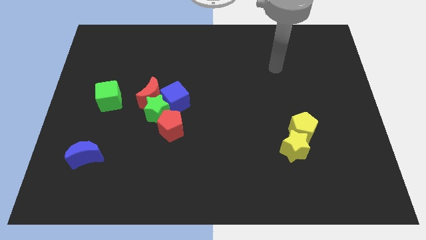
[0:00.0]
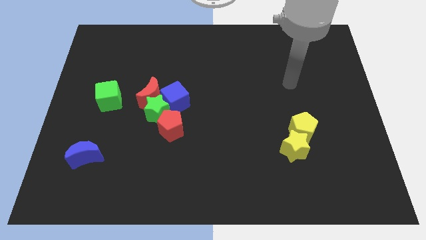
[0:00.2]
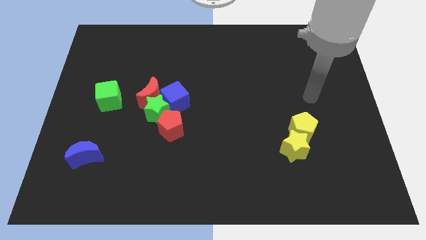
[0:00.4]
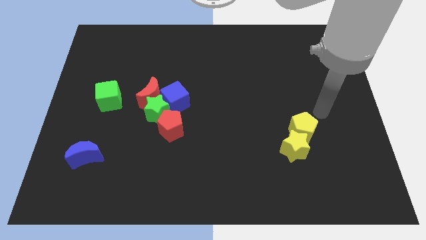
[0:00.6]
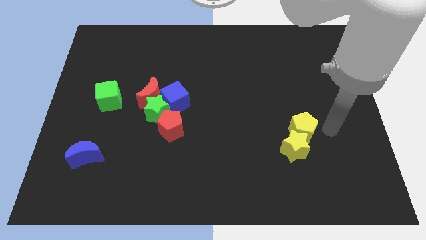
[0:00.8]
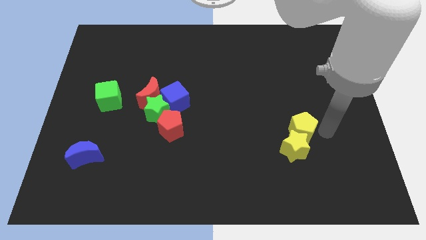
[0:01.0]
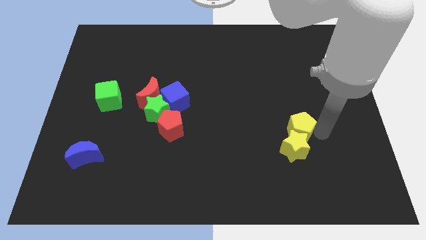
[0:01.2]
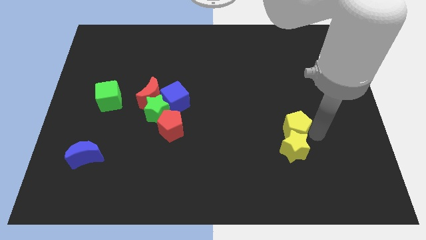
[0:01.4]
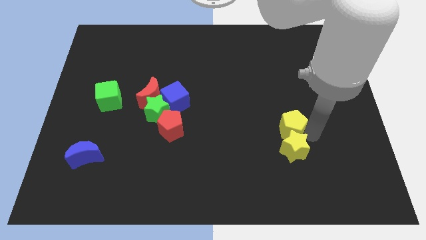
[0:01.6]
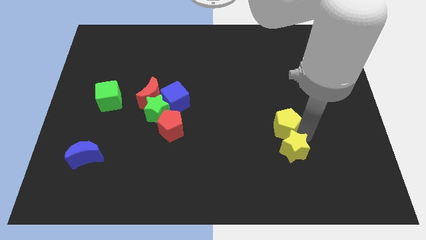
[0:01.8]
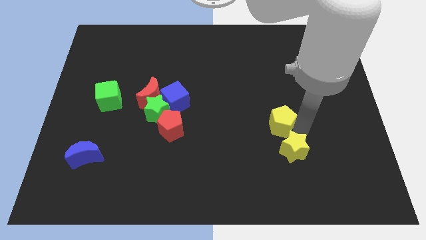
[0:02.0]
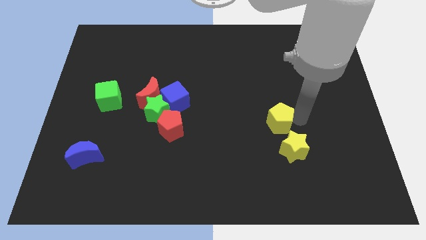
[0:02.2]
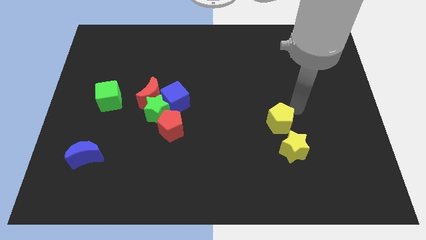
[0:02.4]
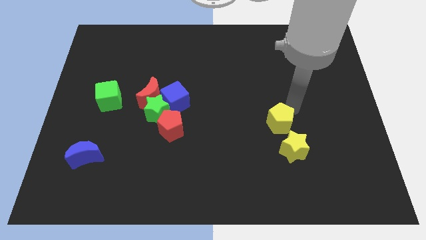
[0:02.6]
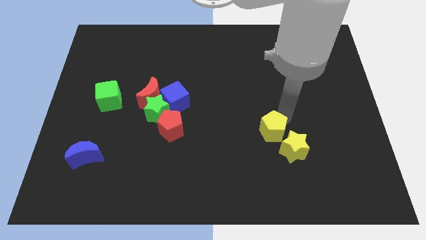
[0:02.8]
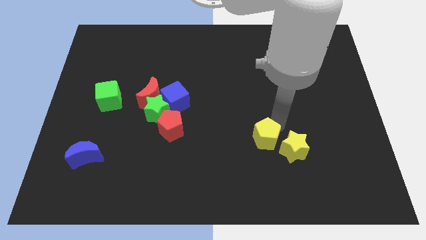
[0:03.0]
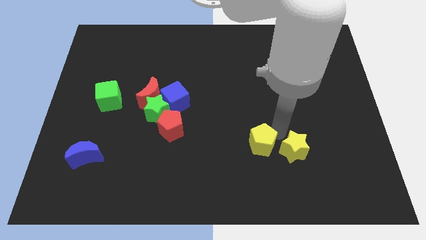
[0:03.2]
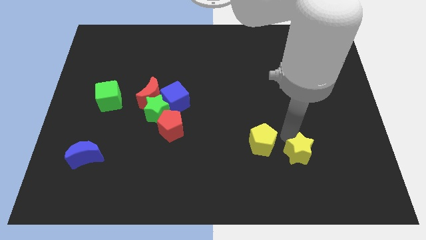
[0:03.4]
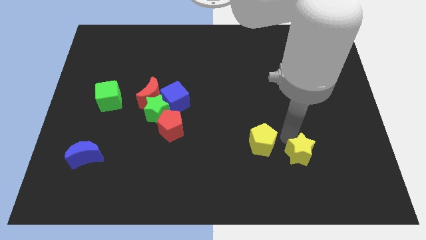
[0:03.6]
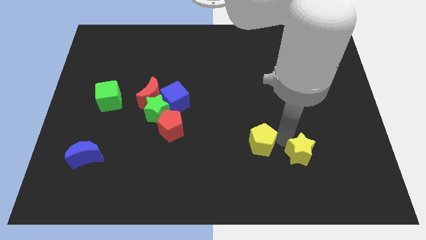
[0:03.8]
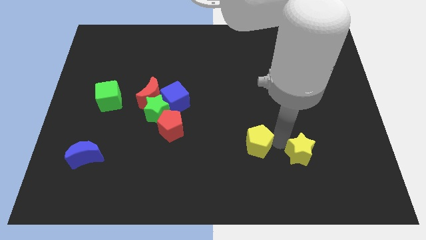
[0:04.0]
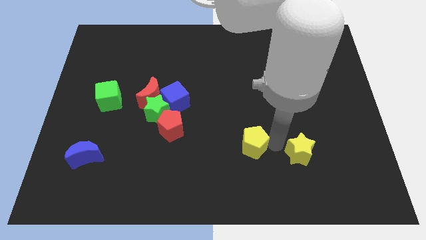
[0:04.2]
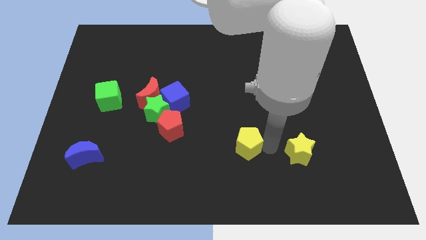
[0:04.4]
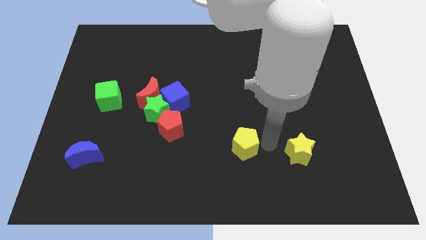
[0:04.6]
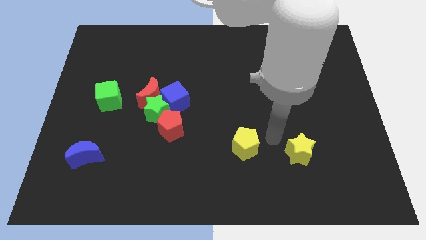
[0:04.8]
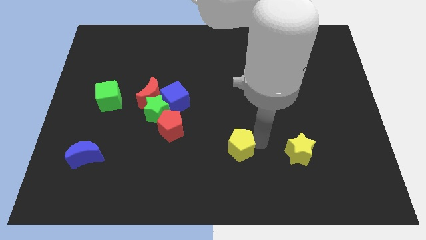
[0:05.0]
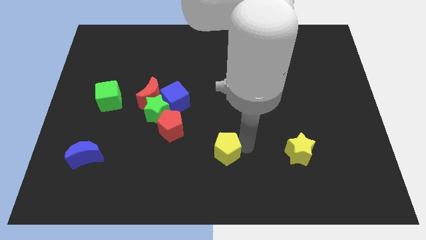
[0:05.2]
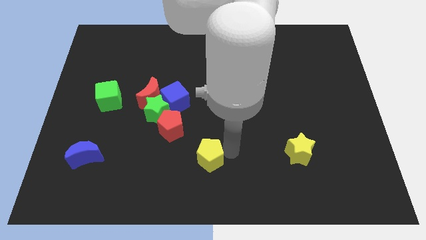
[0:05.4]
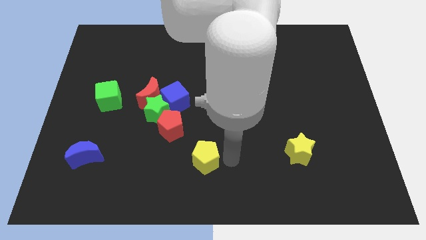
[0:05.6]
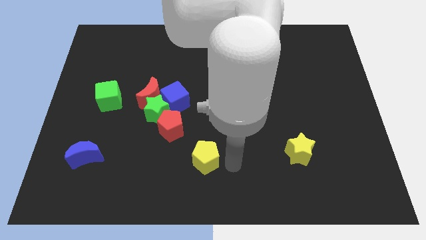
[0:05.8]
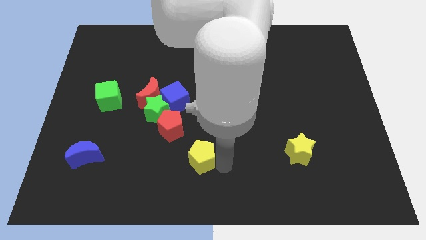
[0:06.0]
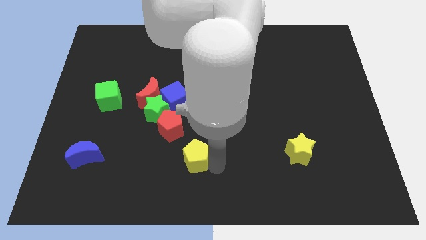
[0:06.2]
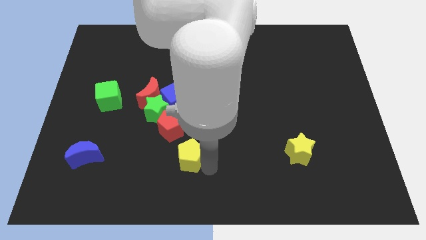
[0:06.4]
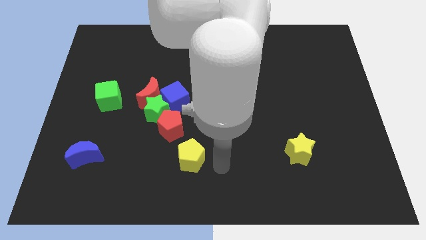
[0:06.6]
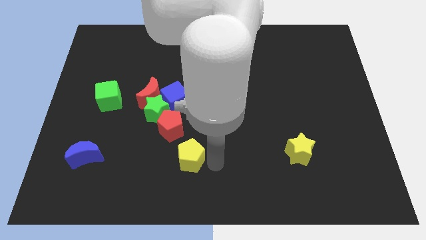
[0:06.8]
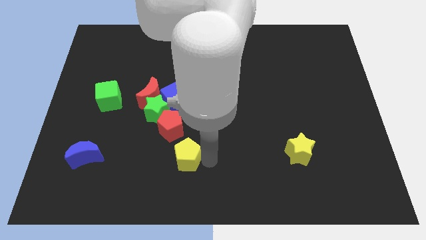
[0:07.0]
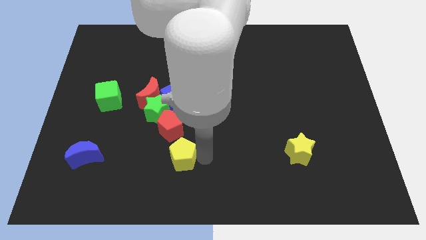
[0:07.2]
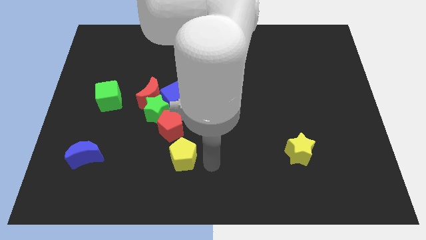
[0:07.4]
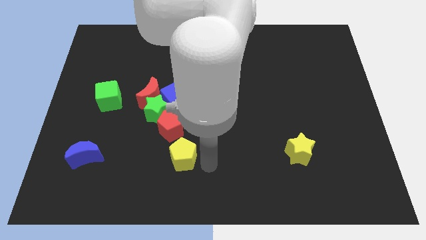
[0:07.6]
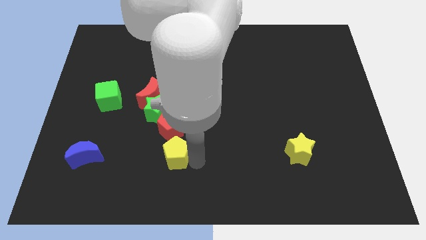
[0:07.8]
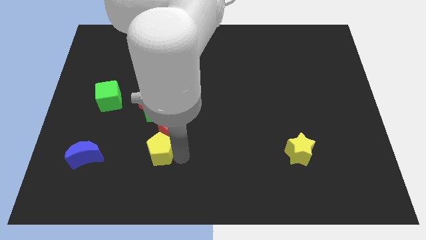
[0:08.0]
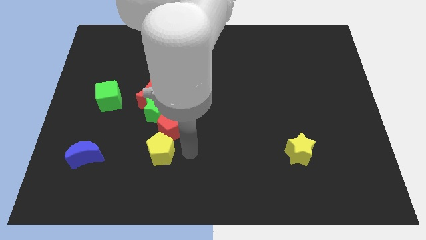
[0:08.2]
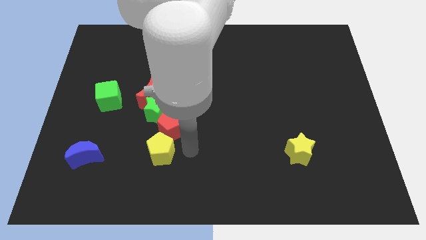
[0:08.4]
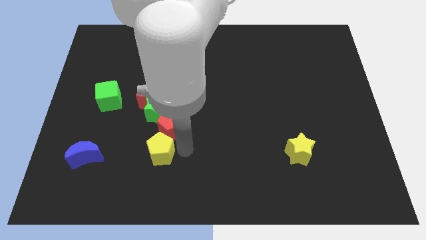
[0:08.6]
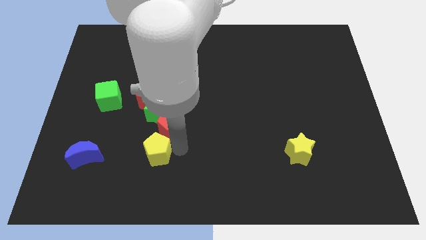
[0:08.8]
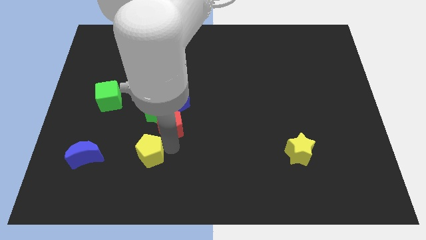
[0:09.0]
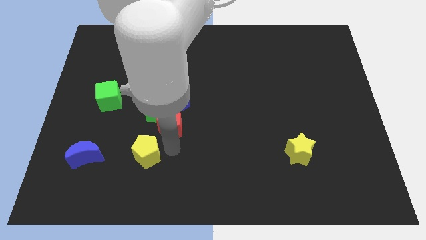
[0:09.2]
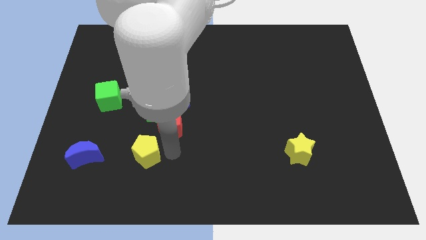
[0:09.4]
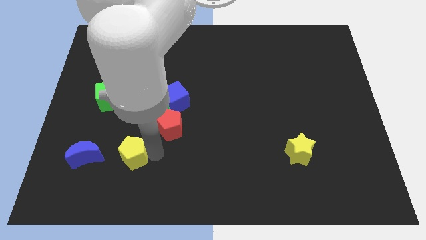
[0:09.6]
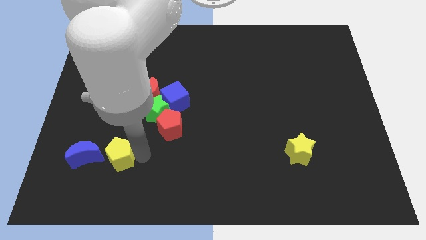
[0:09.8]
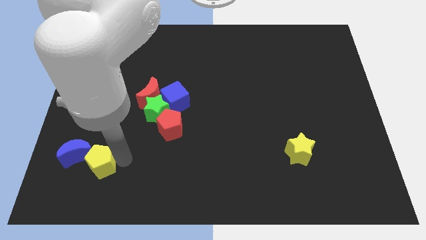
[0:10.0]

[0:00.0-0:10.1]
slide the yellow pentagon towards the blue moon

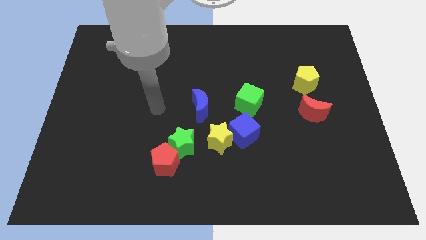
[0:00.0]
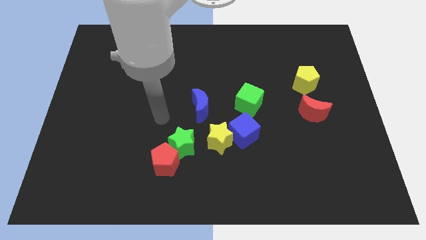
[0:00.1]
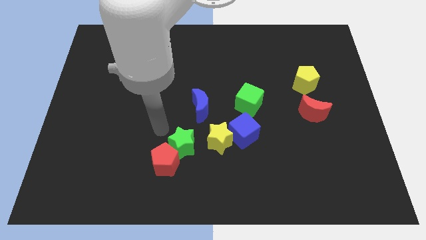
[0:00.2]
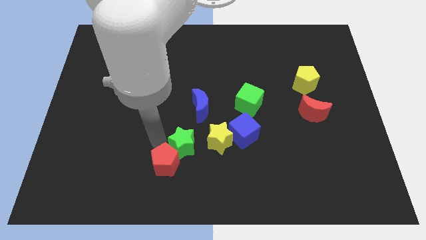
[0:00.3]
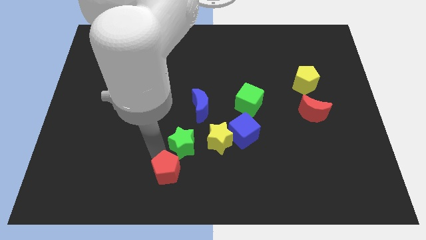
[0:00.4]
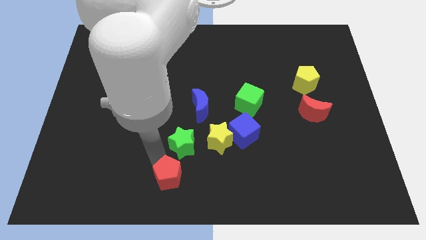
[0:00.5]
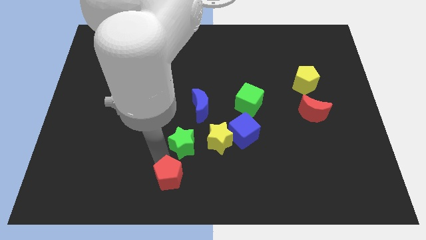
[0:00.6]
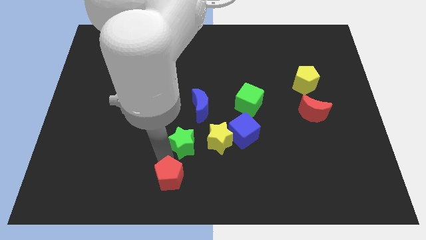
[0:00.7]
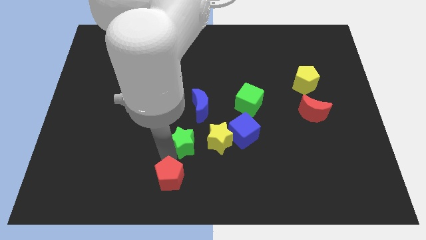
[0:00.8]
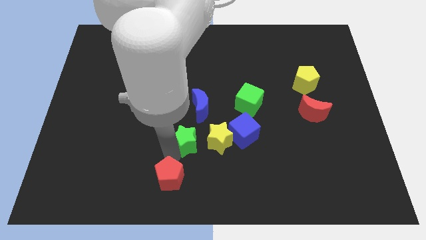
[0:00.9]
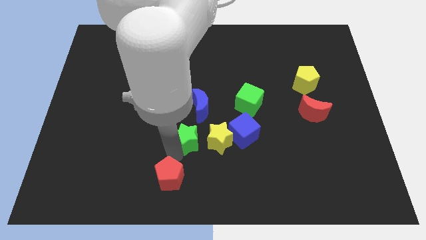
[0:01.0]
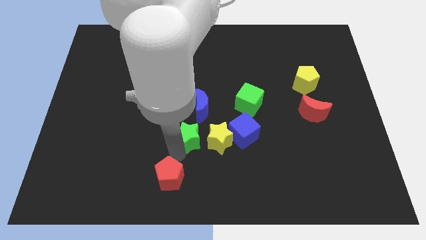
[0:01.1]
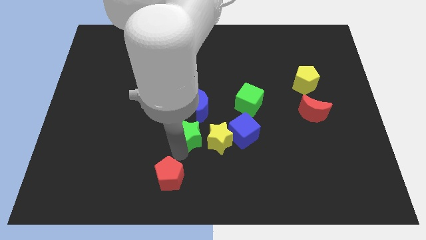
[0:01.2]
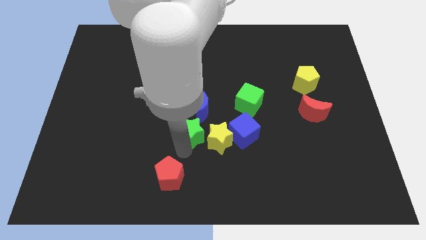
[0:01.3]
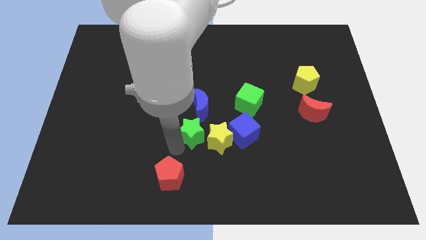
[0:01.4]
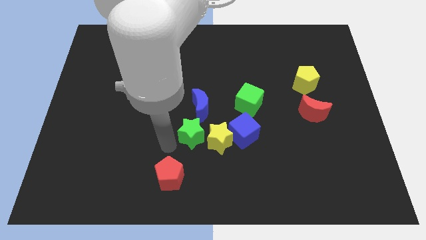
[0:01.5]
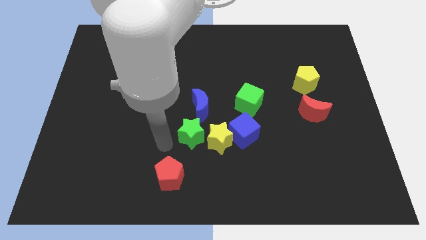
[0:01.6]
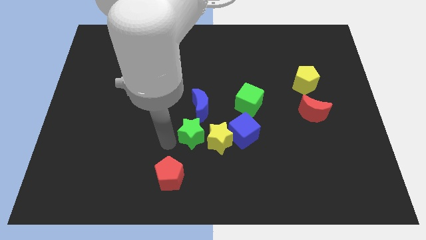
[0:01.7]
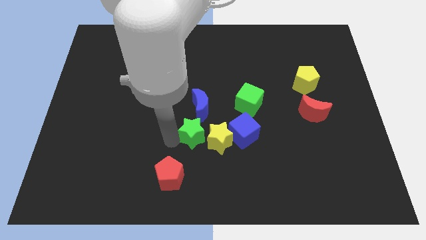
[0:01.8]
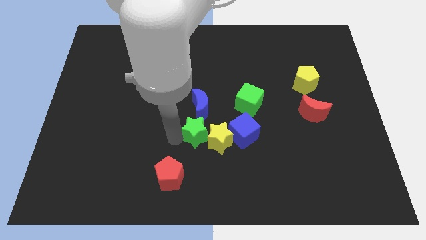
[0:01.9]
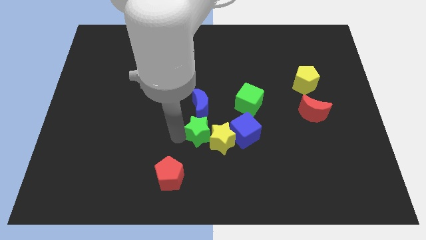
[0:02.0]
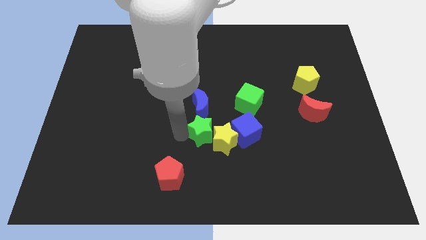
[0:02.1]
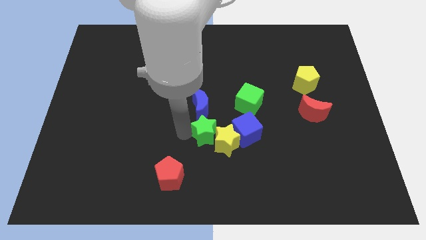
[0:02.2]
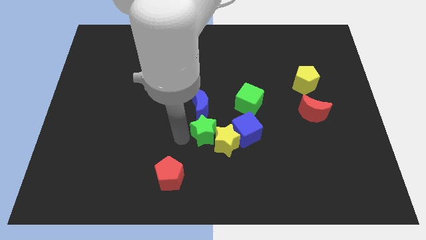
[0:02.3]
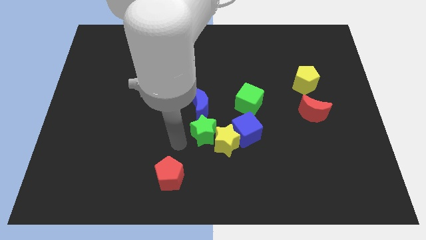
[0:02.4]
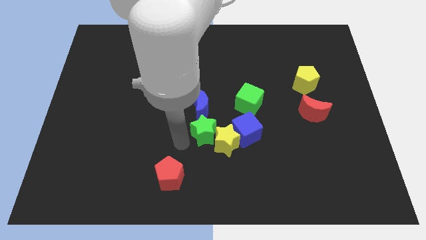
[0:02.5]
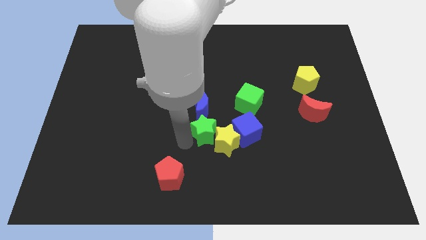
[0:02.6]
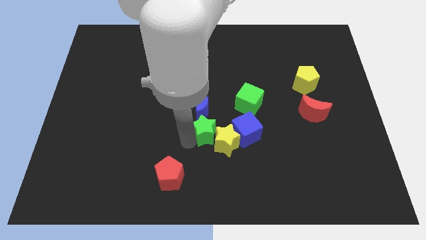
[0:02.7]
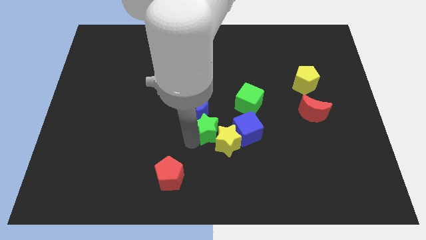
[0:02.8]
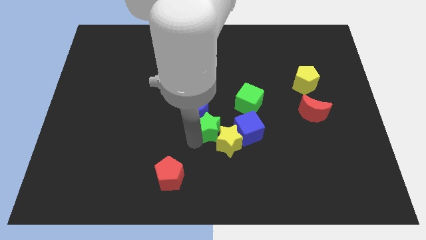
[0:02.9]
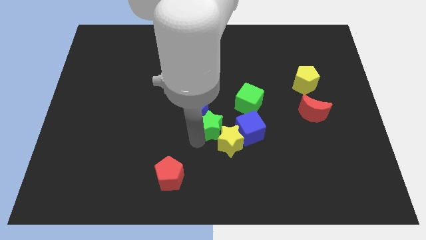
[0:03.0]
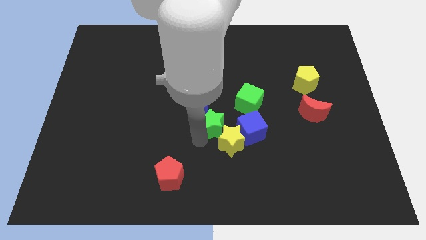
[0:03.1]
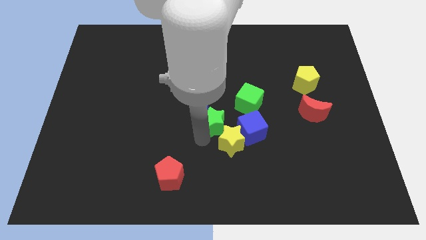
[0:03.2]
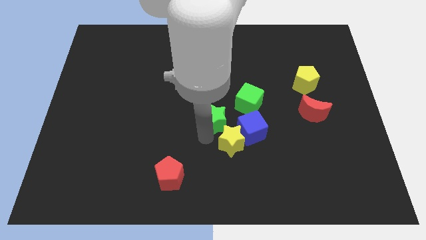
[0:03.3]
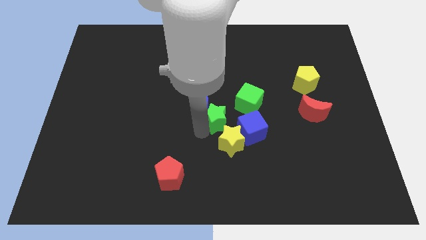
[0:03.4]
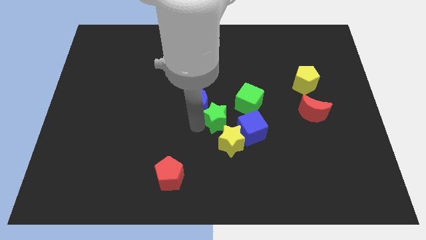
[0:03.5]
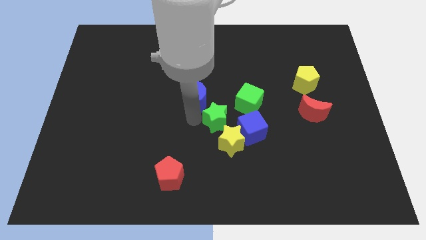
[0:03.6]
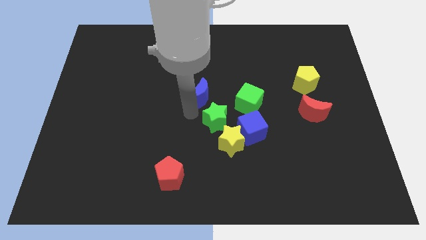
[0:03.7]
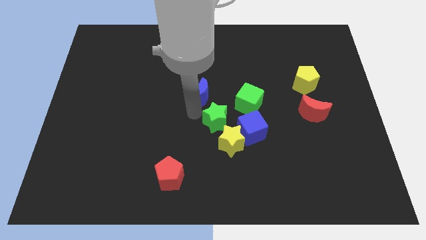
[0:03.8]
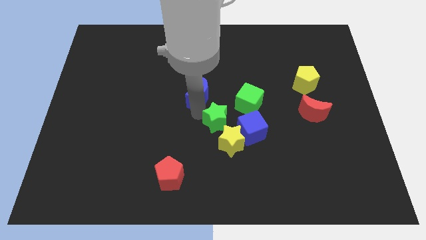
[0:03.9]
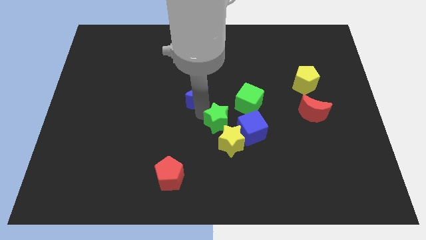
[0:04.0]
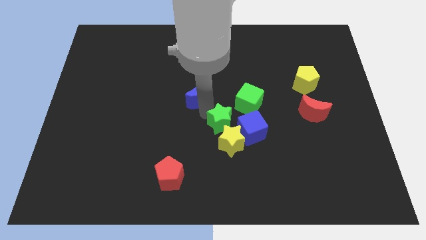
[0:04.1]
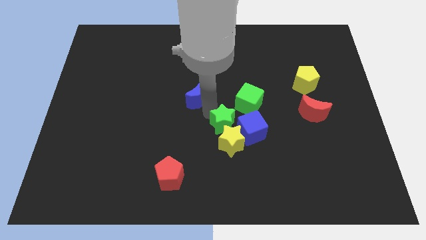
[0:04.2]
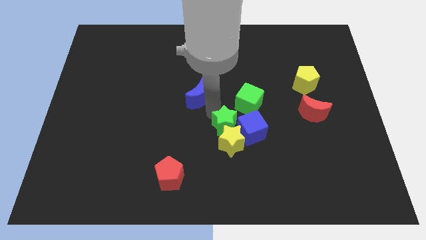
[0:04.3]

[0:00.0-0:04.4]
slide the green star to the blue cube
